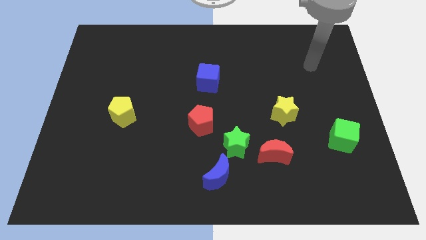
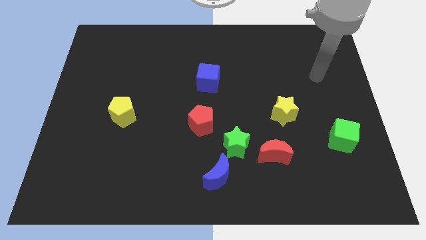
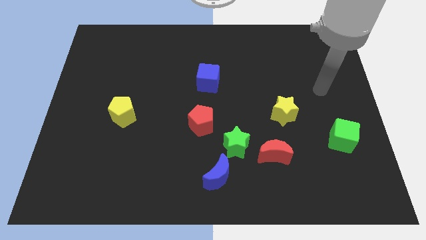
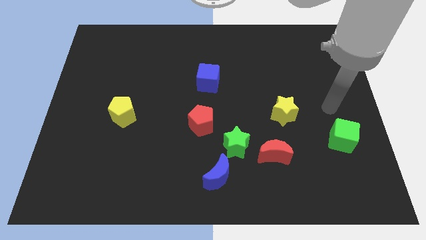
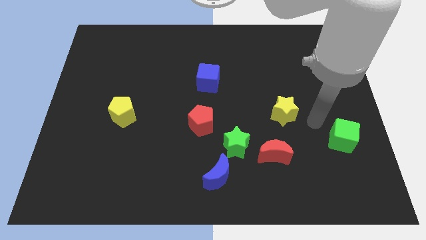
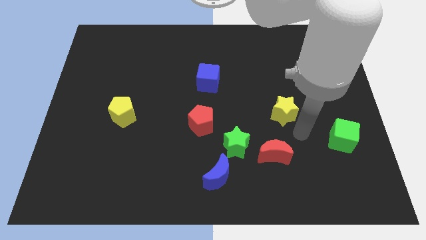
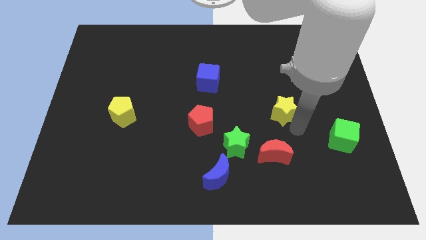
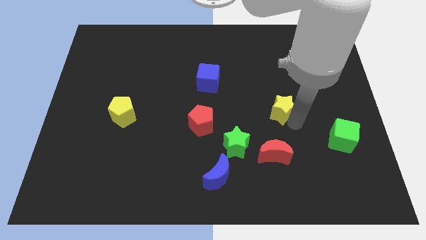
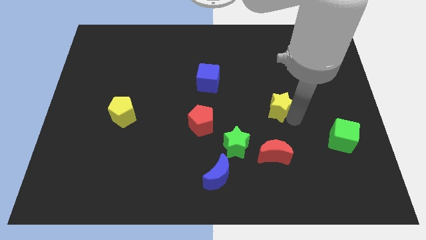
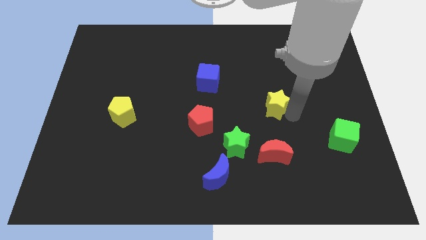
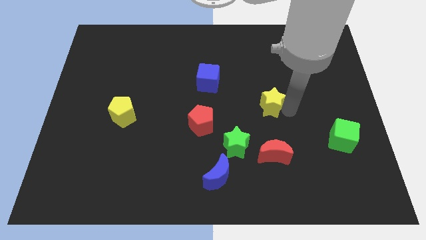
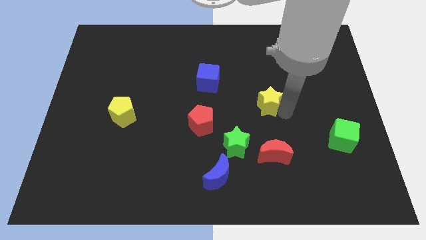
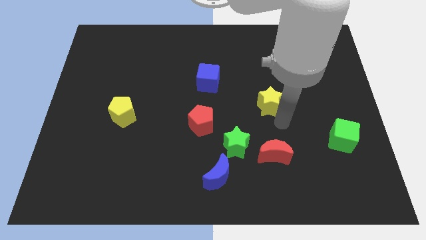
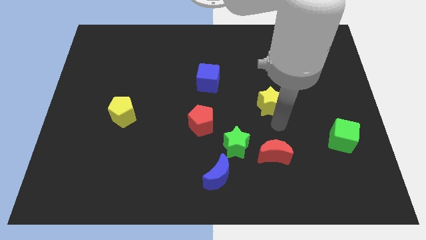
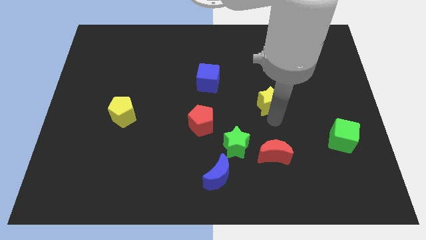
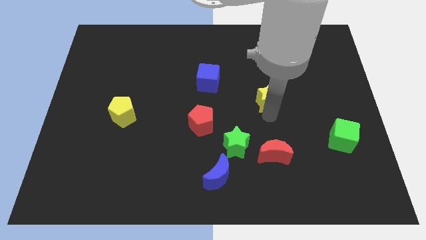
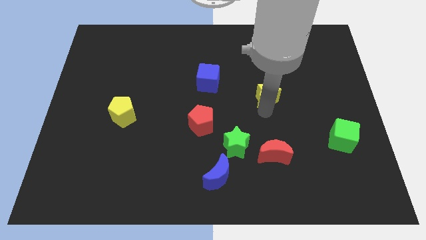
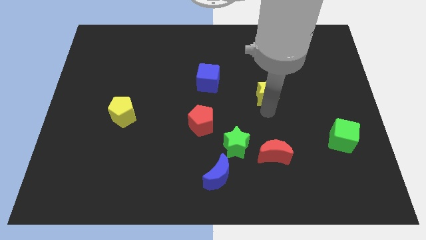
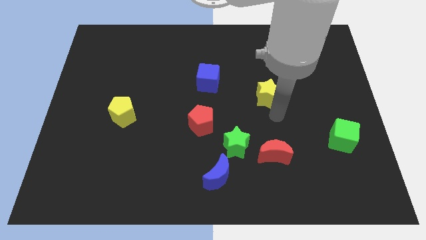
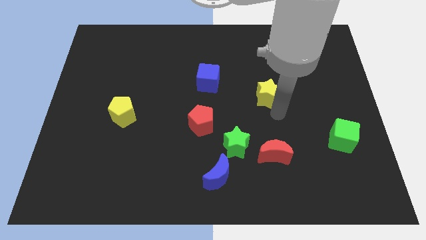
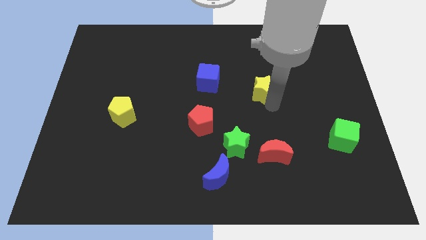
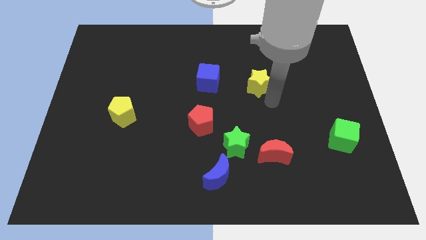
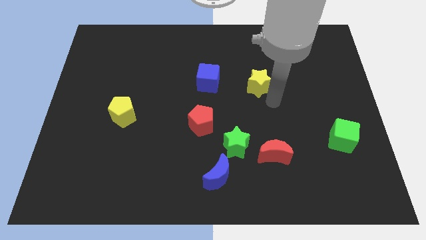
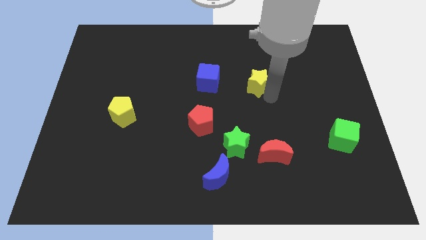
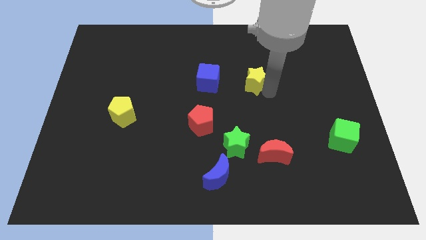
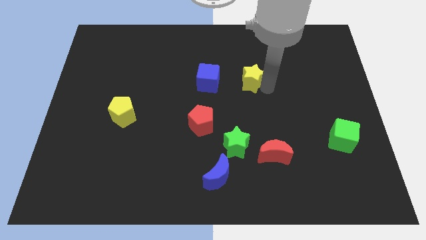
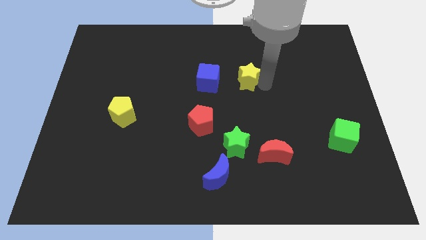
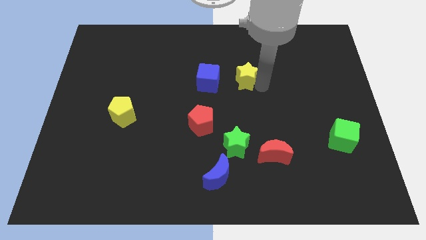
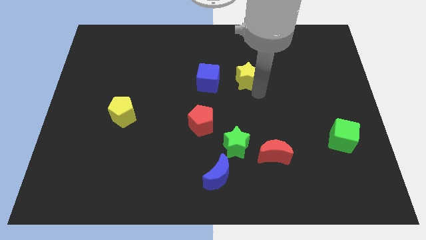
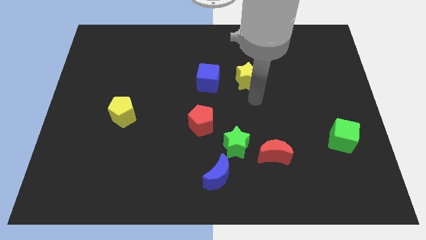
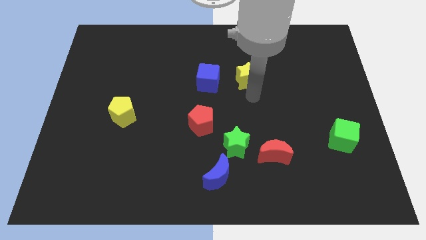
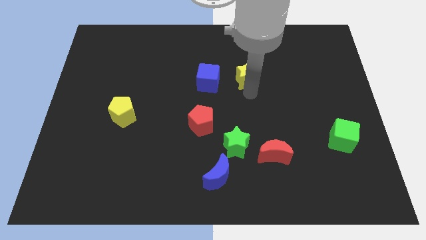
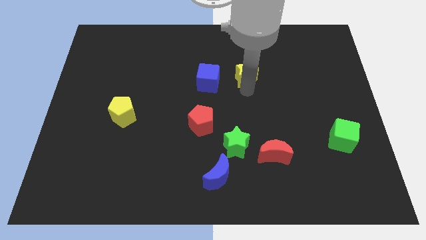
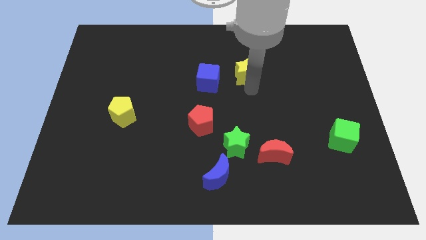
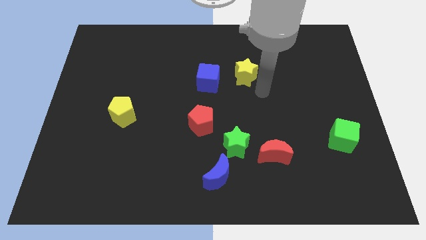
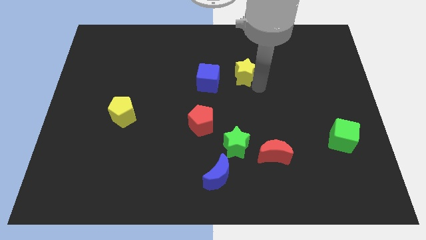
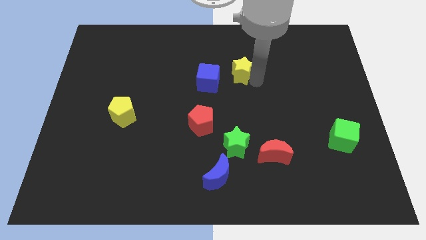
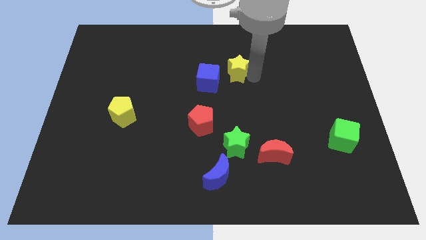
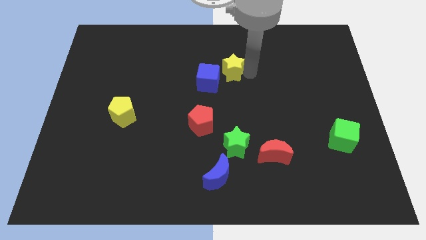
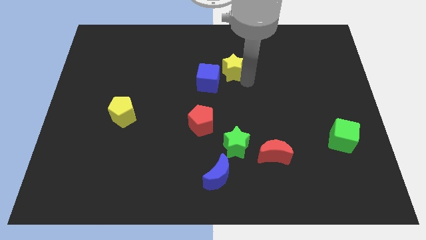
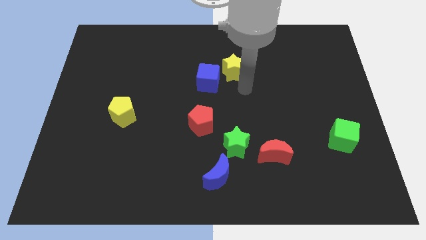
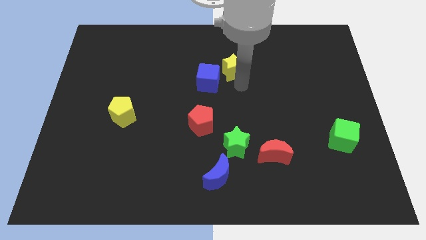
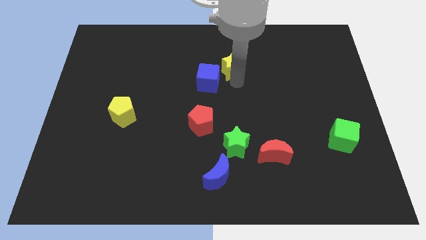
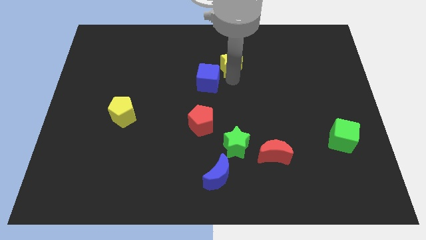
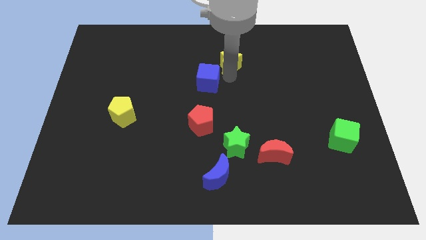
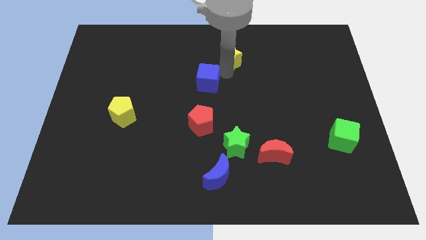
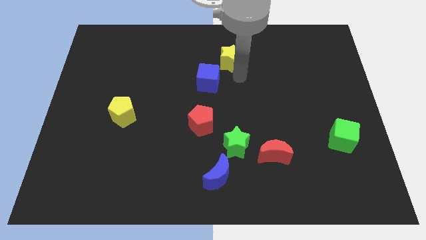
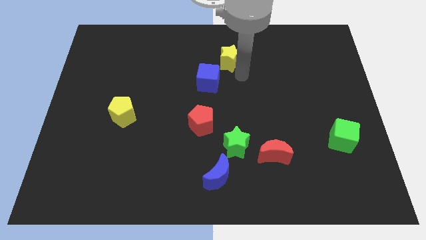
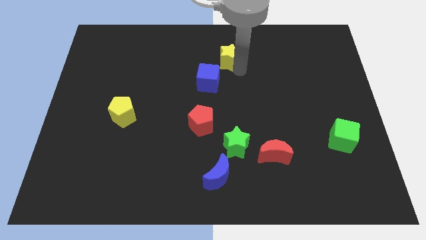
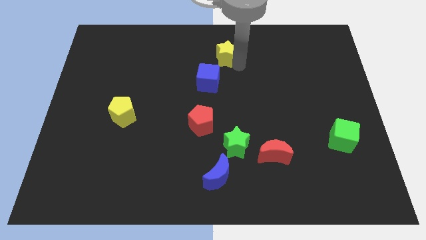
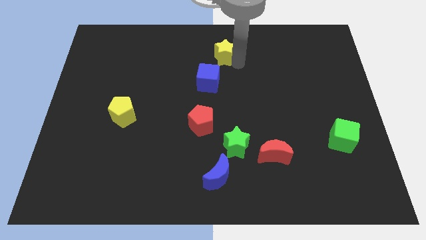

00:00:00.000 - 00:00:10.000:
slide the yellow star to the top side

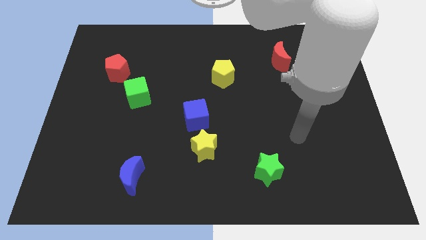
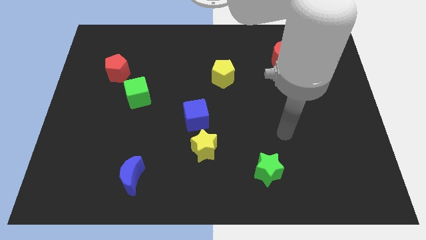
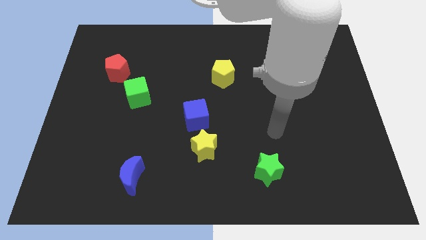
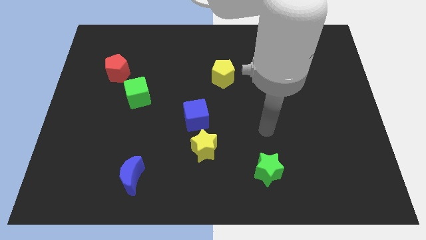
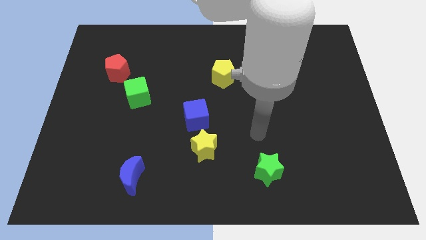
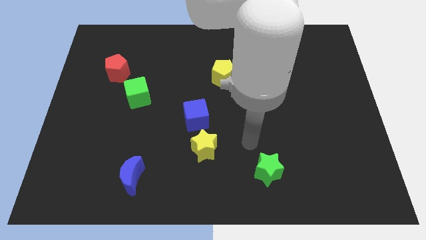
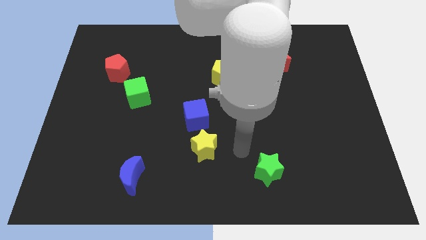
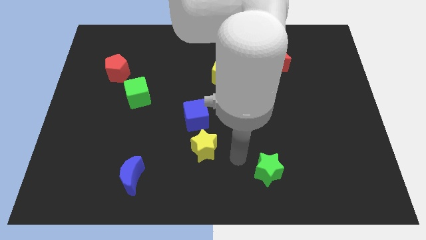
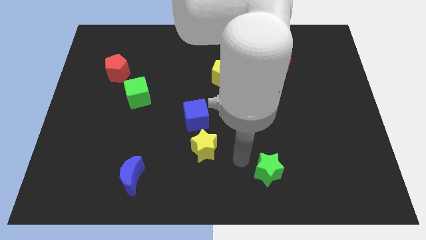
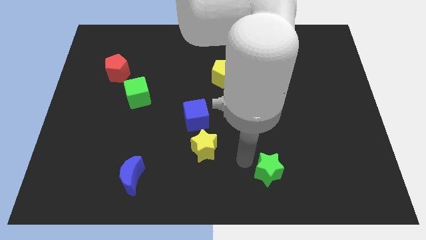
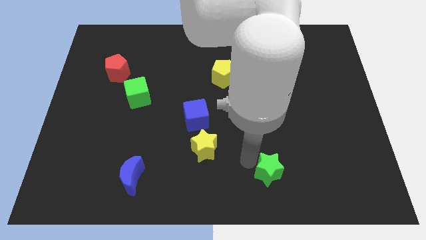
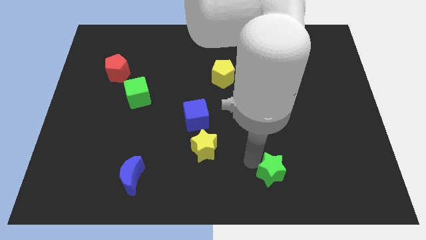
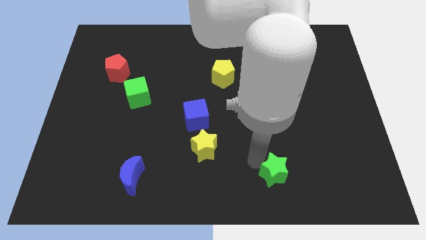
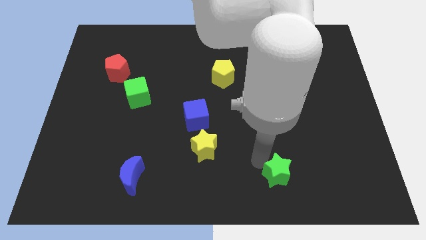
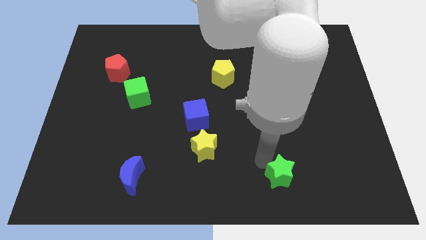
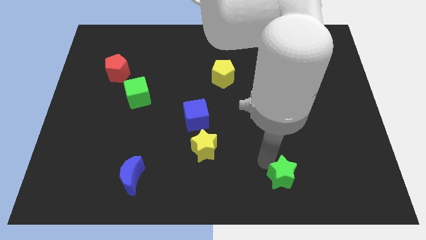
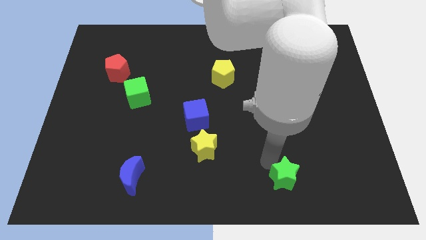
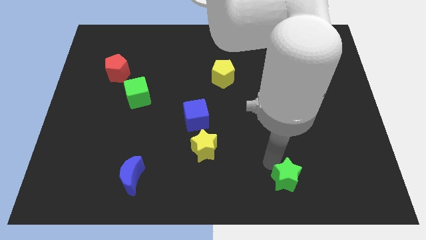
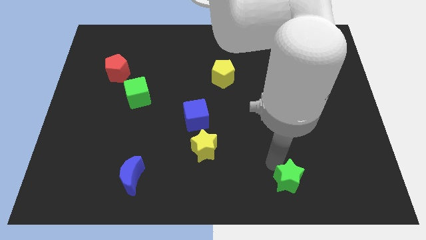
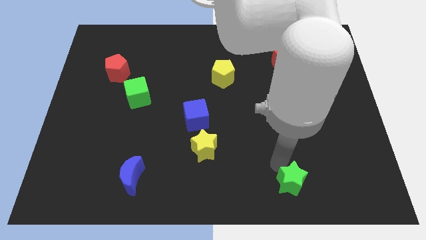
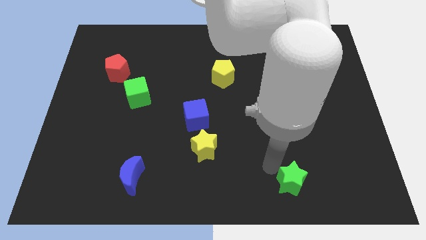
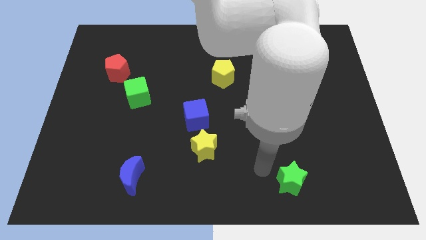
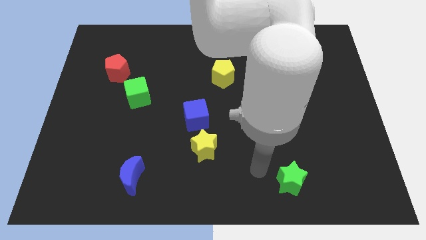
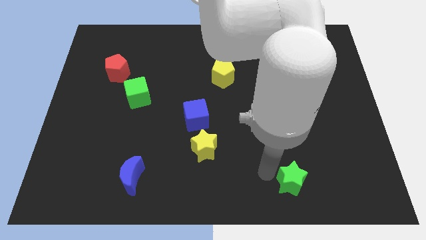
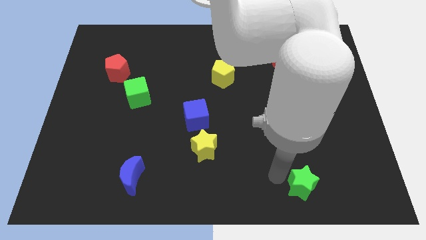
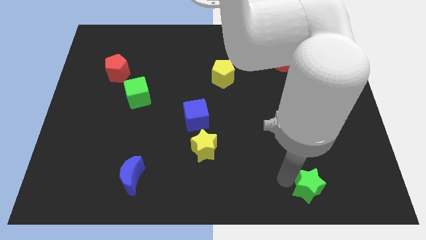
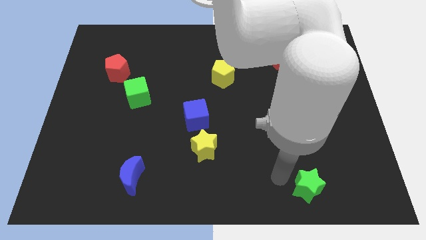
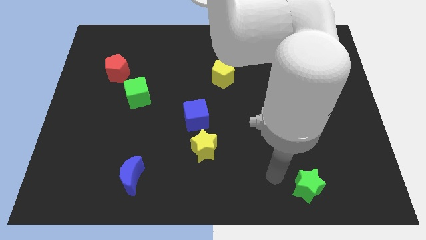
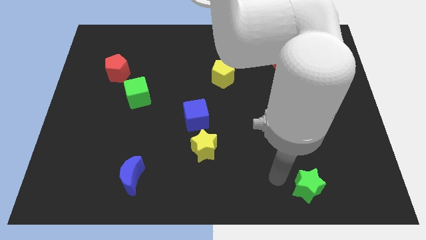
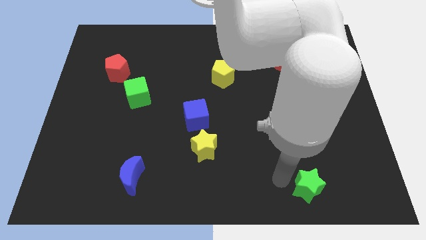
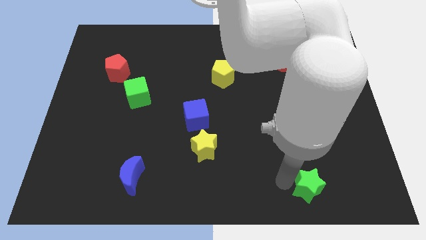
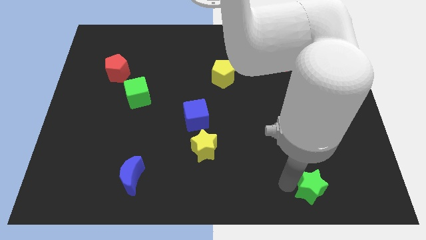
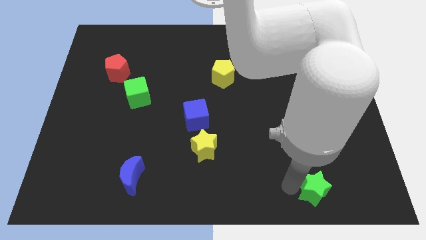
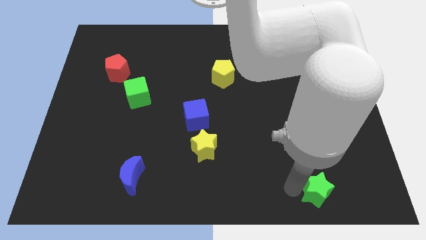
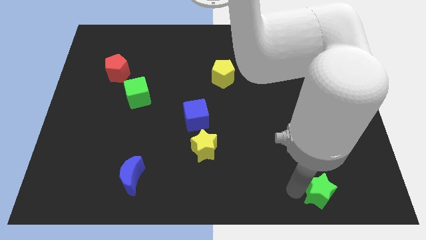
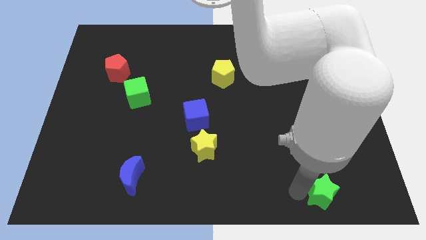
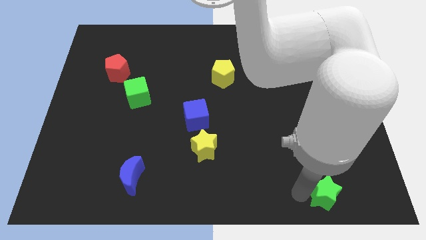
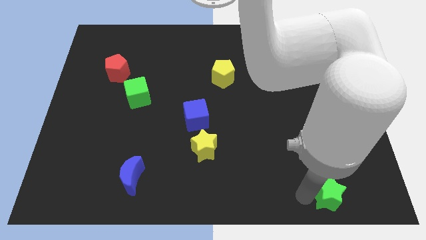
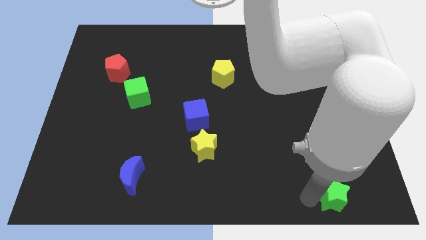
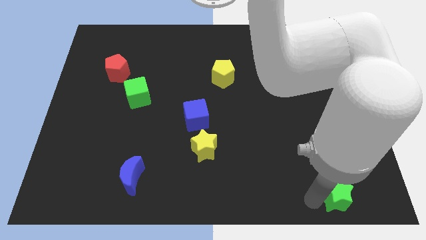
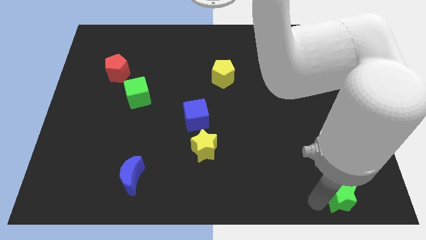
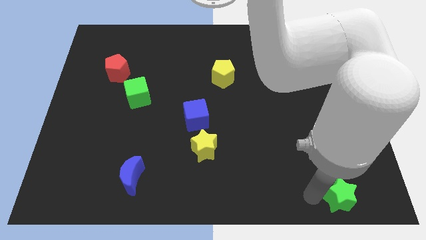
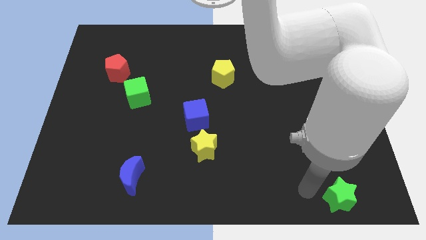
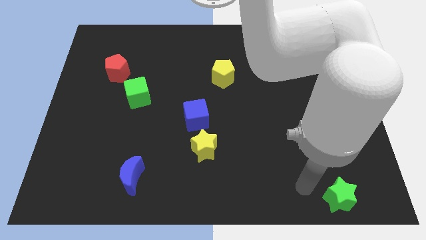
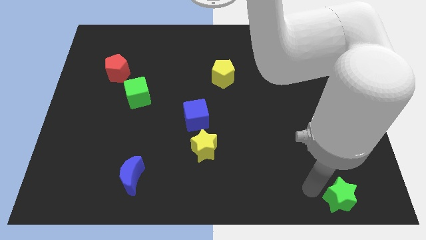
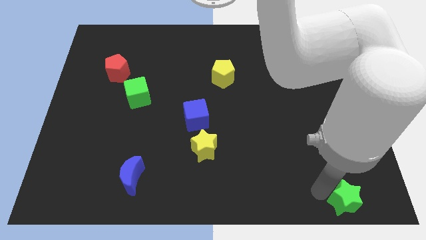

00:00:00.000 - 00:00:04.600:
slide the green star to the bottom right corner
